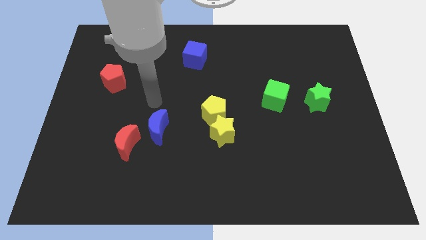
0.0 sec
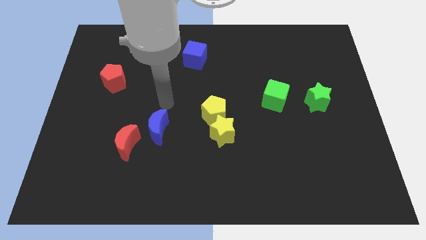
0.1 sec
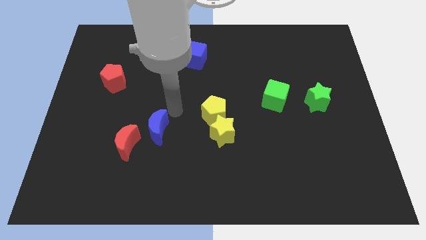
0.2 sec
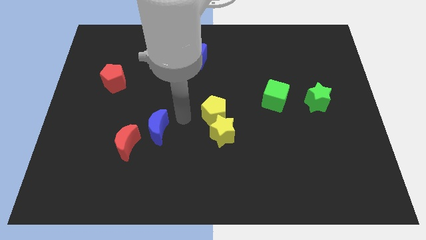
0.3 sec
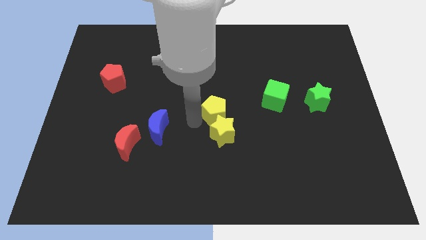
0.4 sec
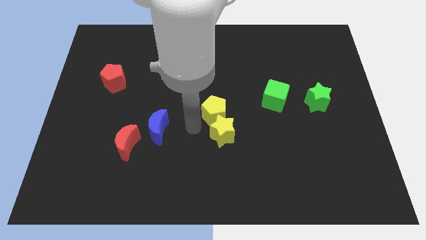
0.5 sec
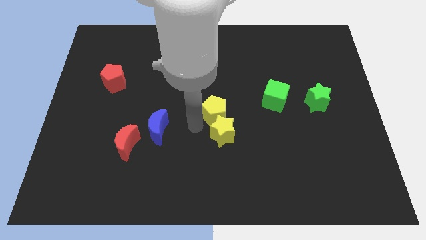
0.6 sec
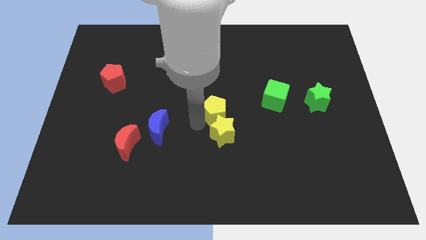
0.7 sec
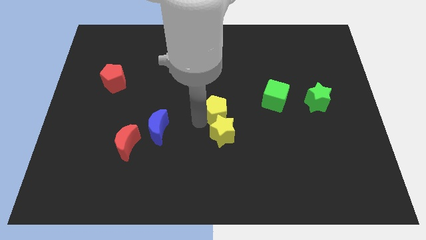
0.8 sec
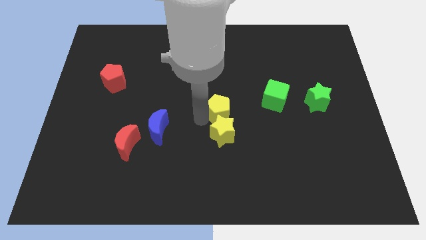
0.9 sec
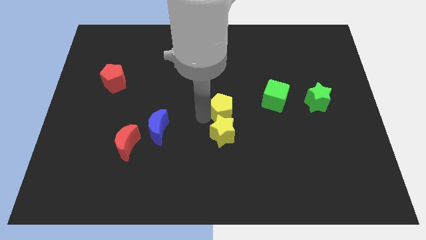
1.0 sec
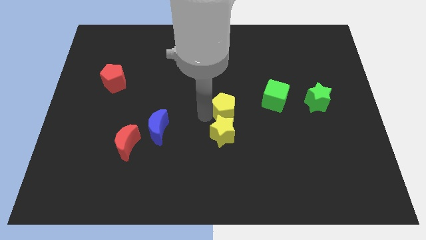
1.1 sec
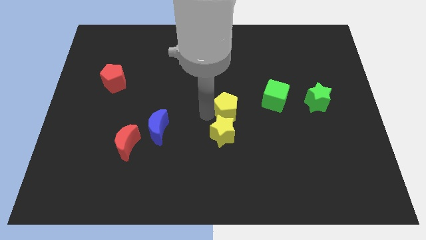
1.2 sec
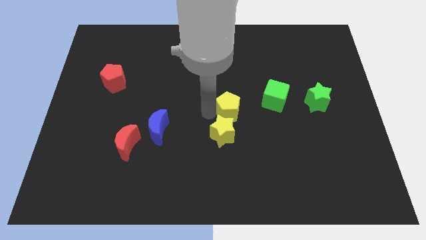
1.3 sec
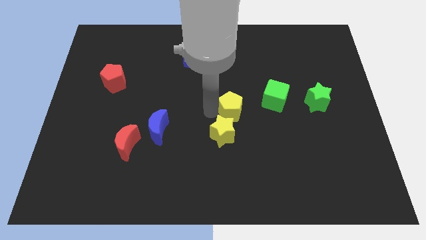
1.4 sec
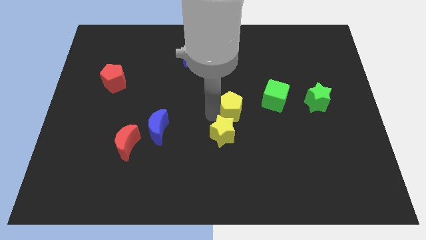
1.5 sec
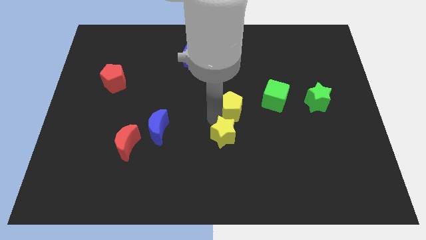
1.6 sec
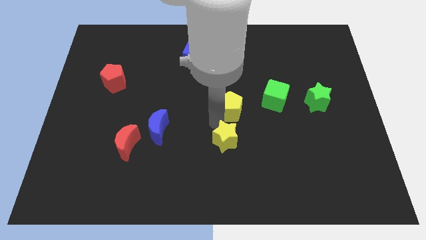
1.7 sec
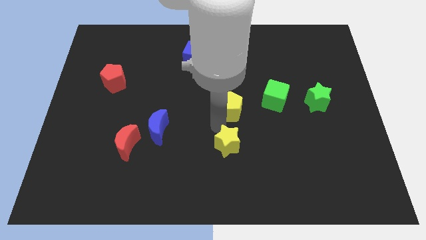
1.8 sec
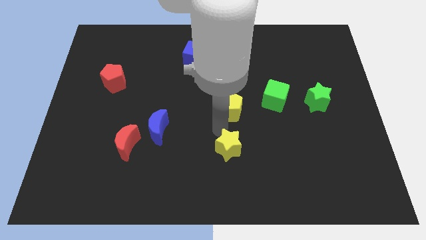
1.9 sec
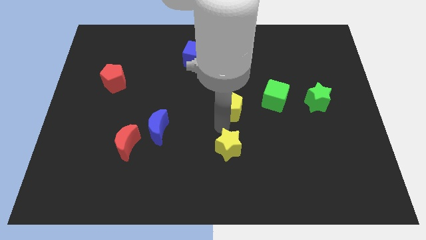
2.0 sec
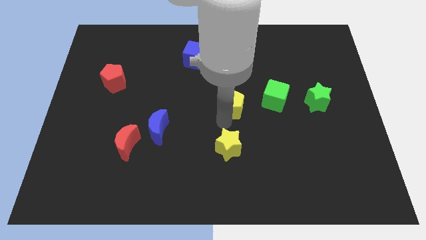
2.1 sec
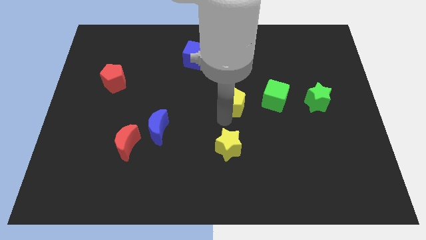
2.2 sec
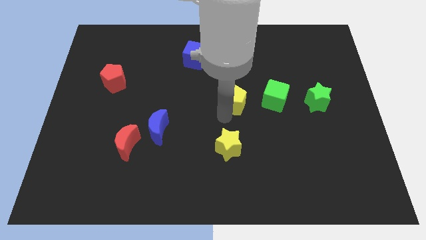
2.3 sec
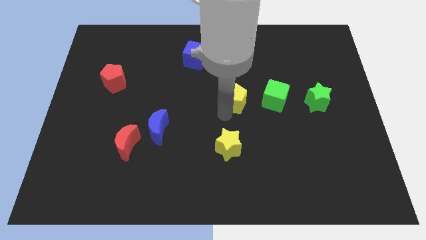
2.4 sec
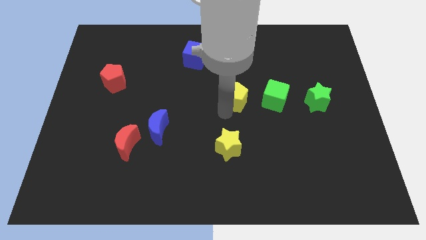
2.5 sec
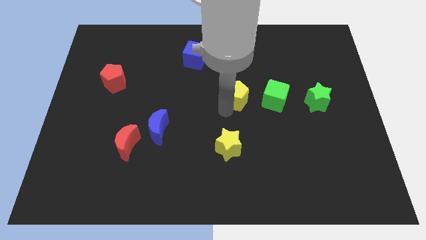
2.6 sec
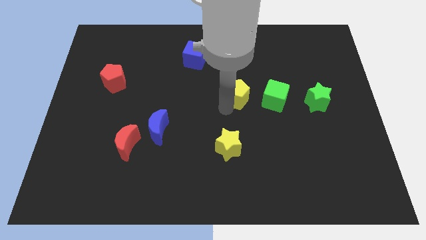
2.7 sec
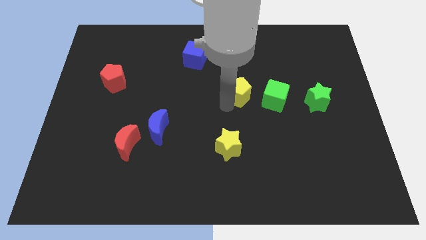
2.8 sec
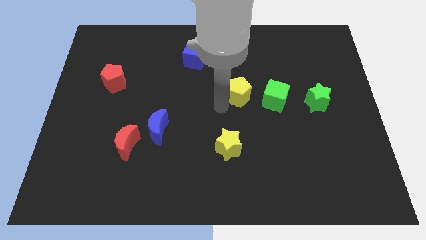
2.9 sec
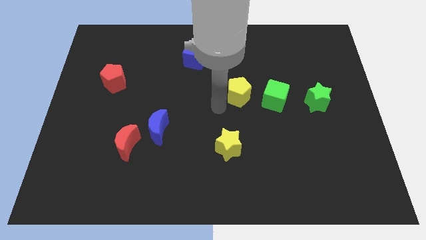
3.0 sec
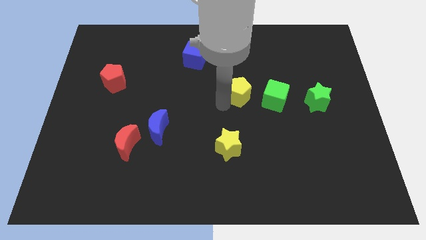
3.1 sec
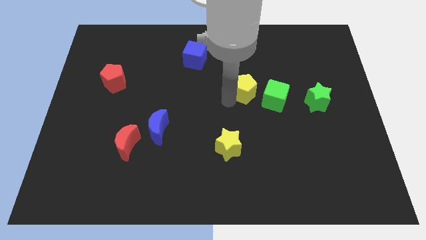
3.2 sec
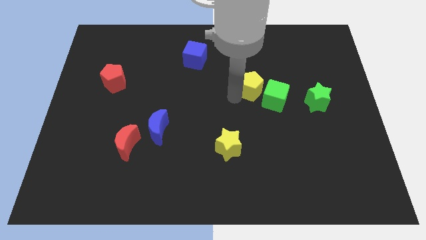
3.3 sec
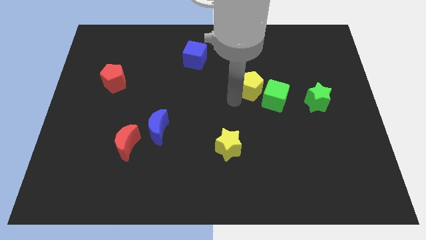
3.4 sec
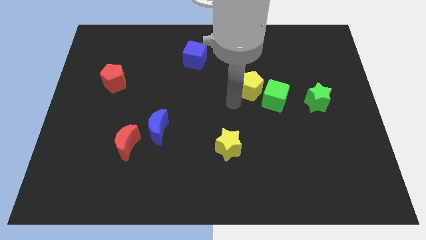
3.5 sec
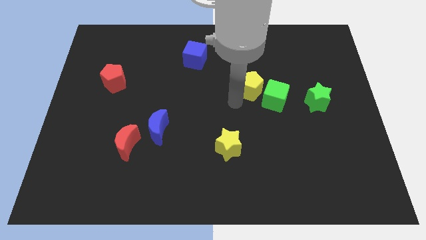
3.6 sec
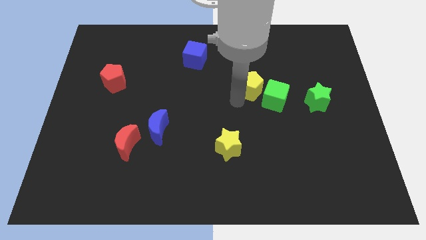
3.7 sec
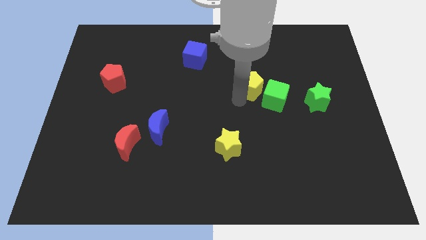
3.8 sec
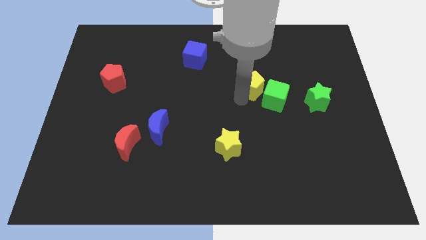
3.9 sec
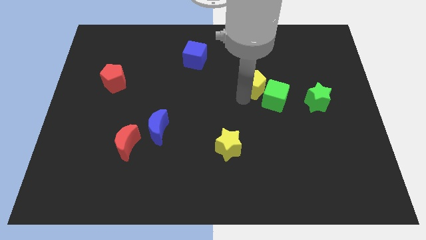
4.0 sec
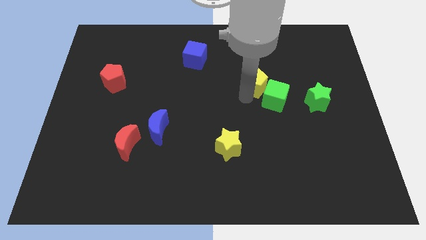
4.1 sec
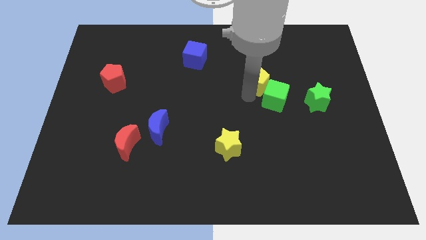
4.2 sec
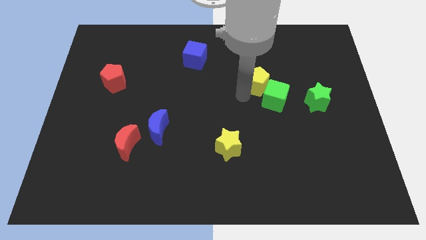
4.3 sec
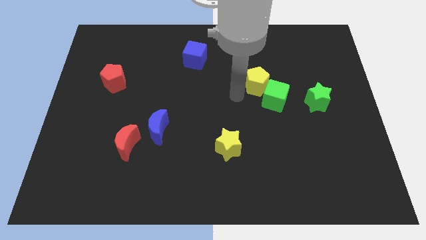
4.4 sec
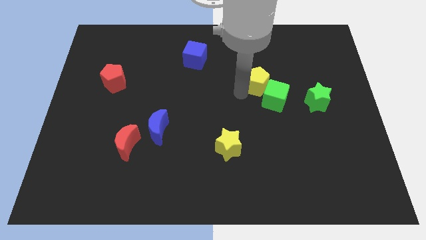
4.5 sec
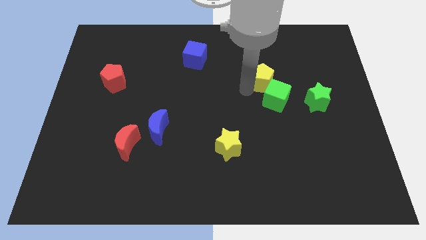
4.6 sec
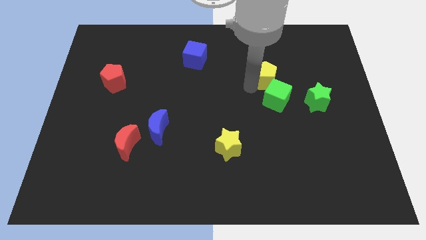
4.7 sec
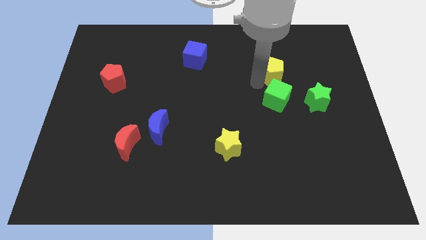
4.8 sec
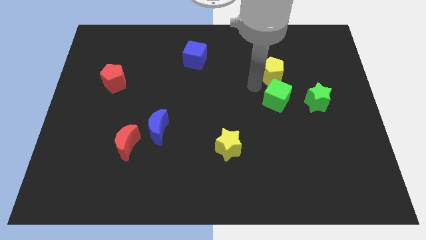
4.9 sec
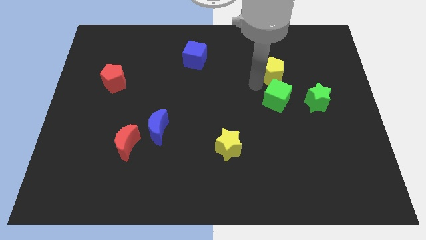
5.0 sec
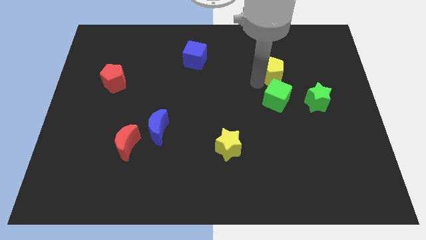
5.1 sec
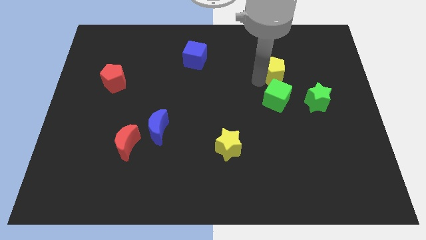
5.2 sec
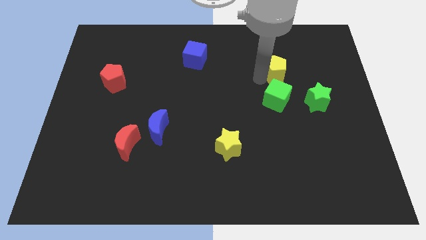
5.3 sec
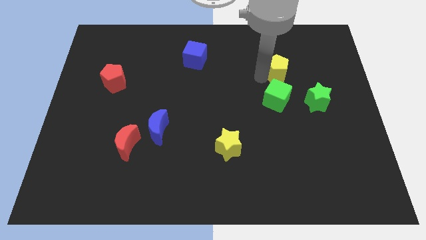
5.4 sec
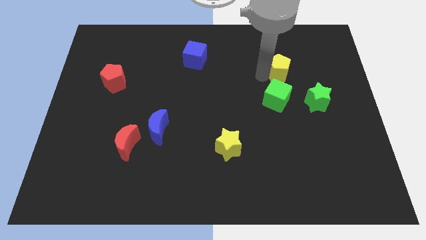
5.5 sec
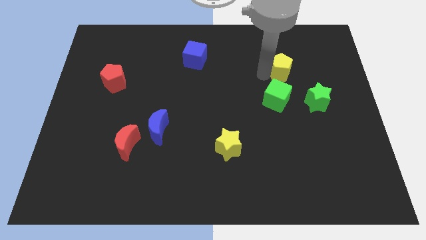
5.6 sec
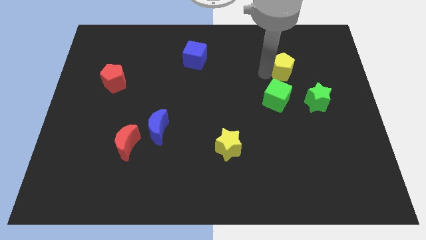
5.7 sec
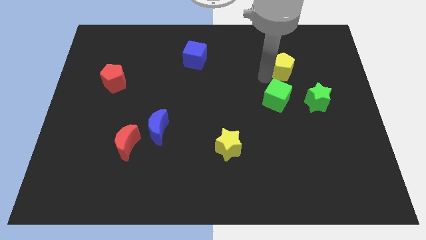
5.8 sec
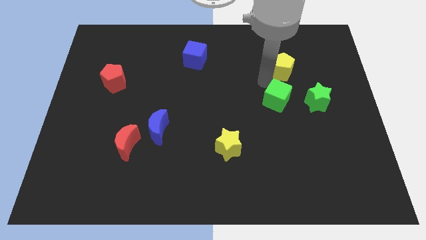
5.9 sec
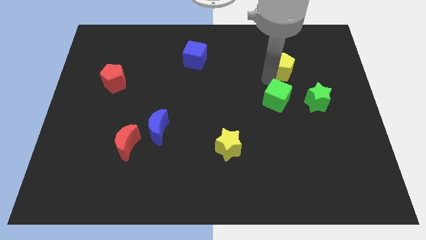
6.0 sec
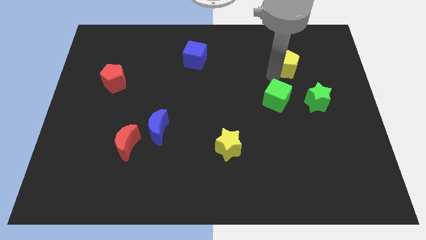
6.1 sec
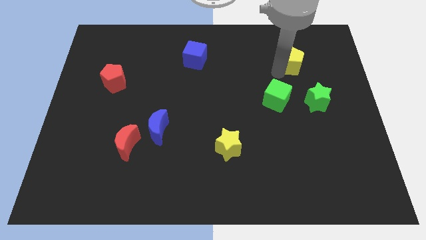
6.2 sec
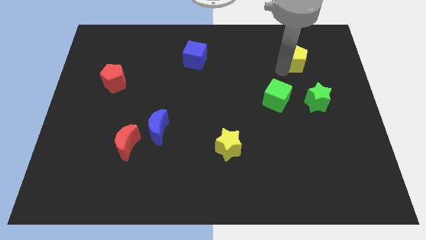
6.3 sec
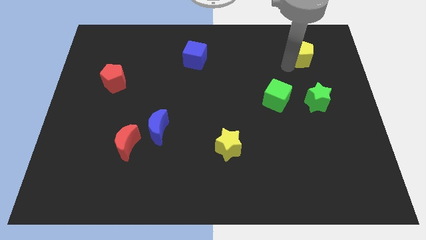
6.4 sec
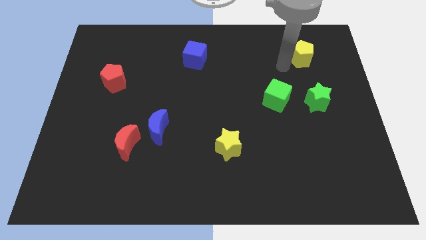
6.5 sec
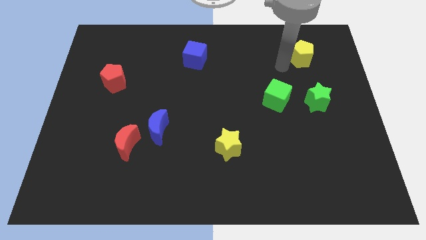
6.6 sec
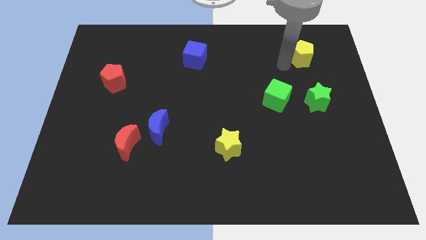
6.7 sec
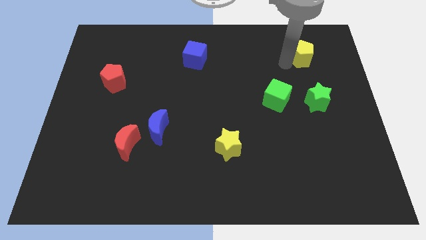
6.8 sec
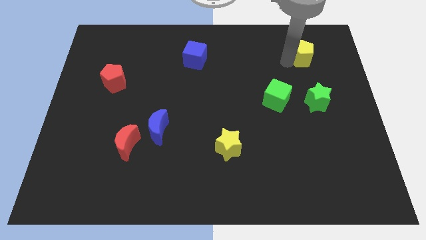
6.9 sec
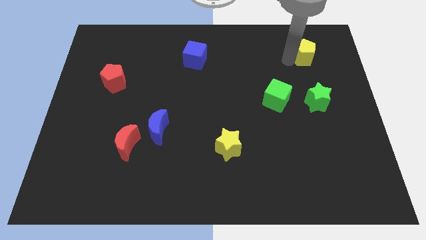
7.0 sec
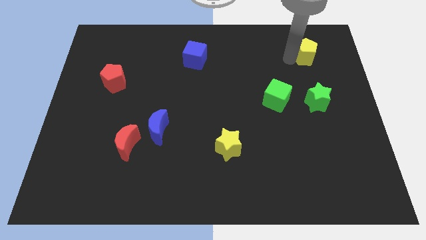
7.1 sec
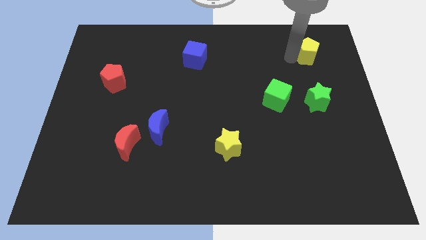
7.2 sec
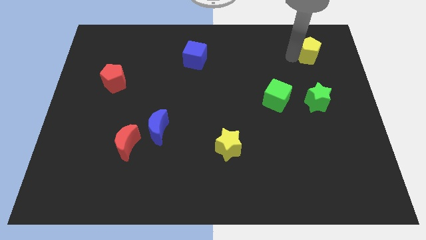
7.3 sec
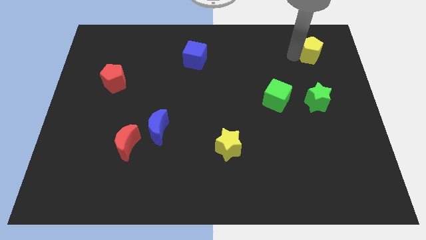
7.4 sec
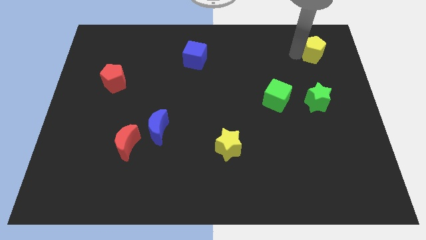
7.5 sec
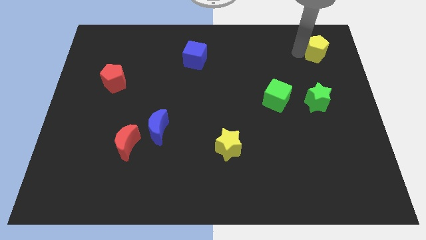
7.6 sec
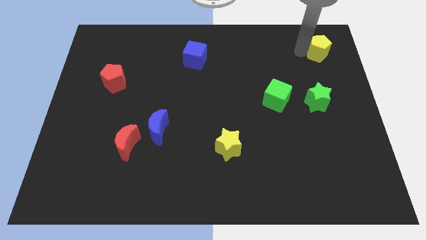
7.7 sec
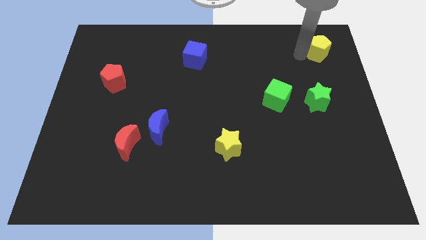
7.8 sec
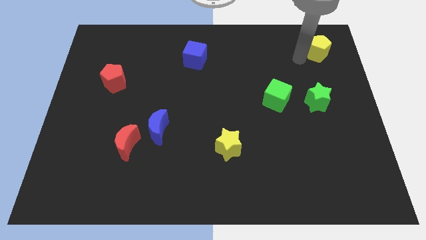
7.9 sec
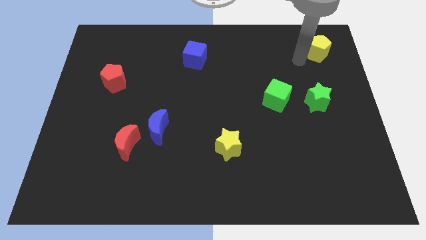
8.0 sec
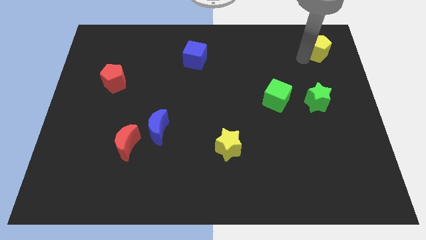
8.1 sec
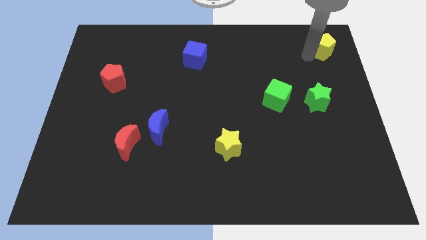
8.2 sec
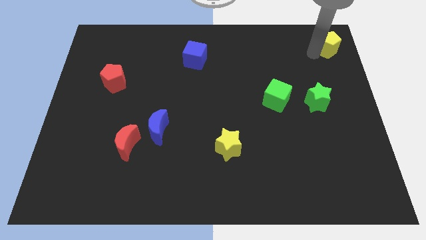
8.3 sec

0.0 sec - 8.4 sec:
push the yellow pentagon to the top right
